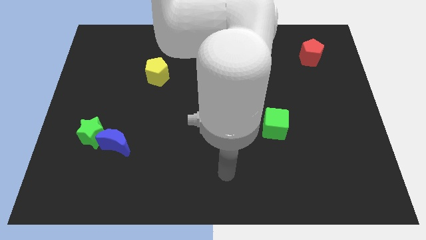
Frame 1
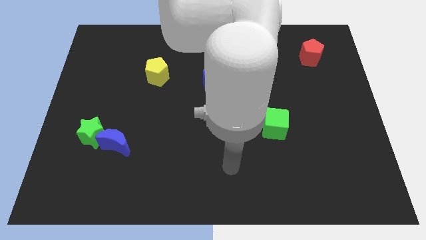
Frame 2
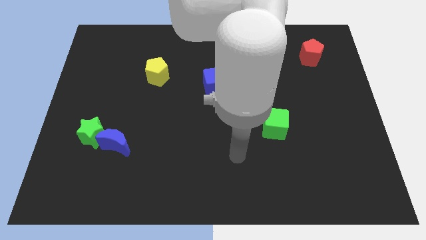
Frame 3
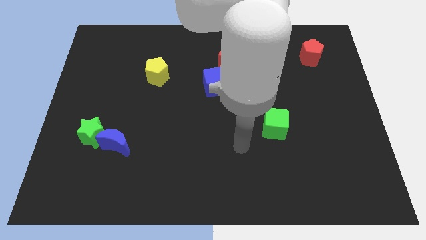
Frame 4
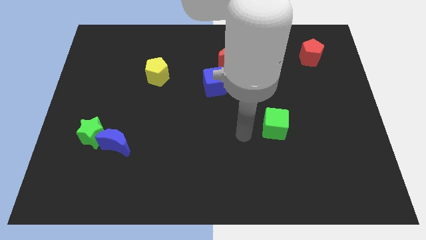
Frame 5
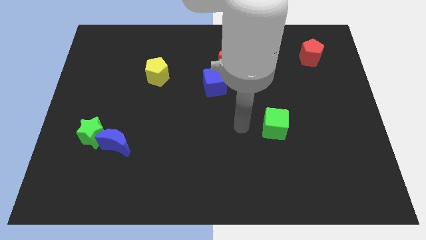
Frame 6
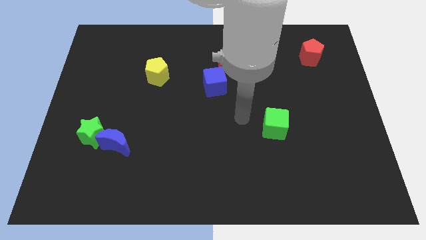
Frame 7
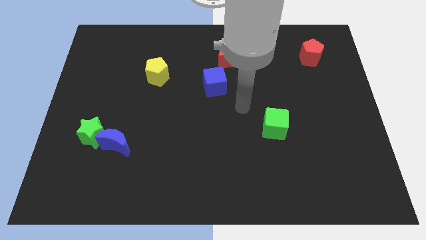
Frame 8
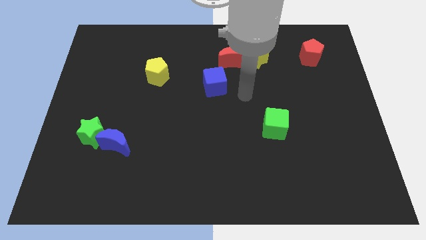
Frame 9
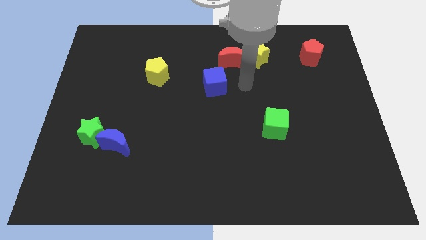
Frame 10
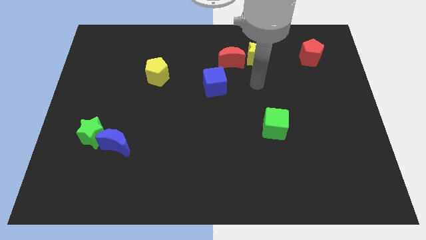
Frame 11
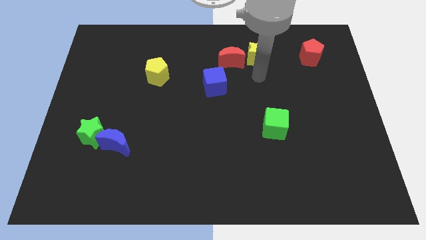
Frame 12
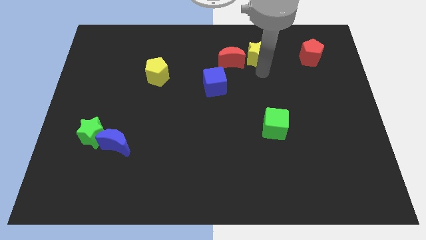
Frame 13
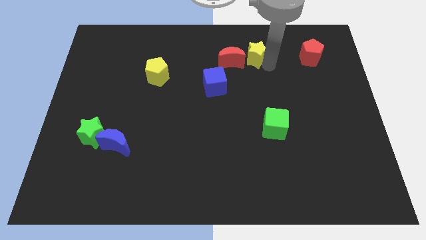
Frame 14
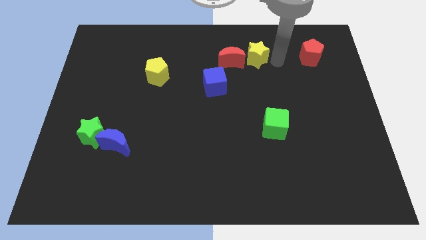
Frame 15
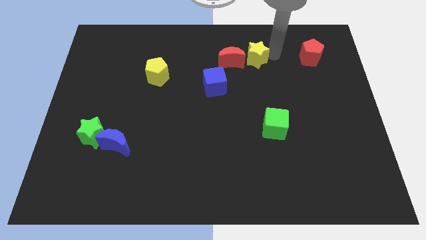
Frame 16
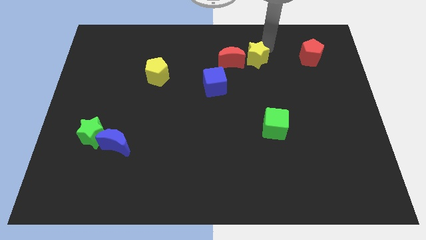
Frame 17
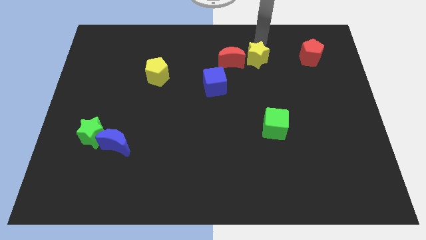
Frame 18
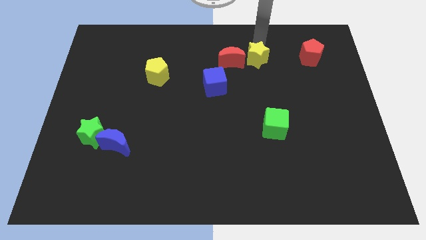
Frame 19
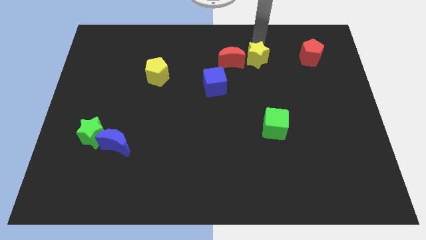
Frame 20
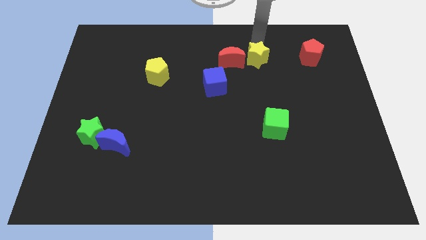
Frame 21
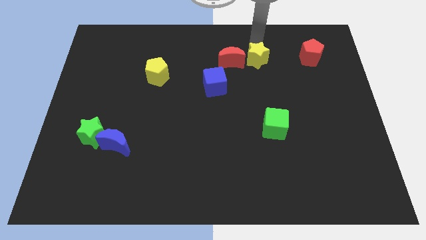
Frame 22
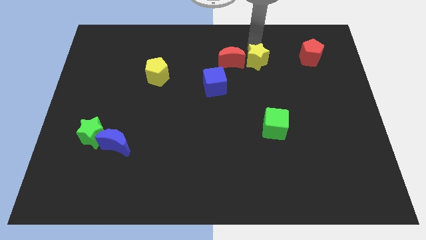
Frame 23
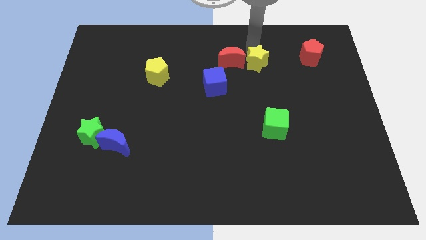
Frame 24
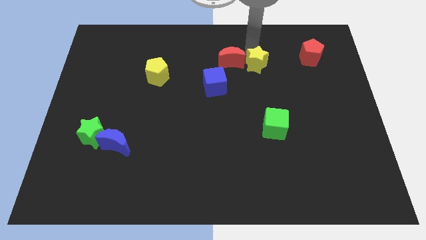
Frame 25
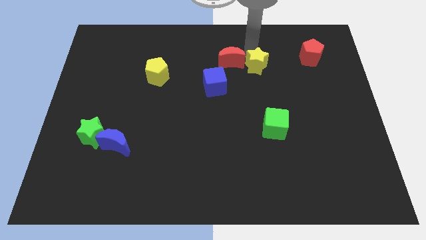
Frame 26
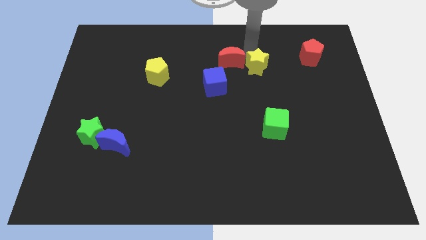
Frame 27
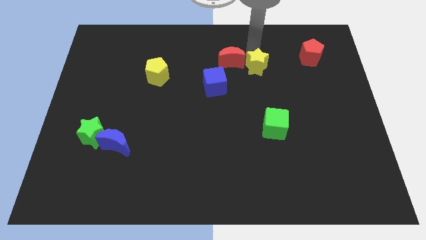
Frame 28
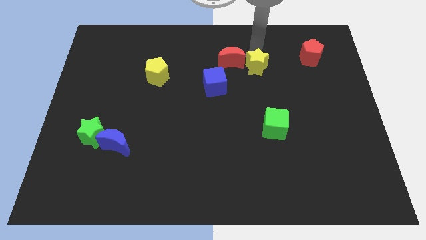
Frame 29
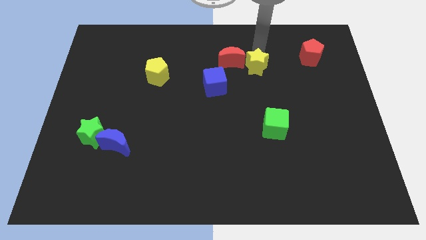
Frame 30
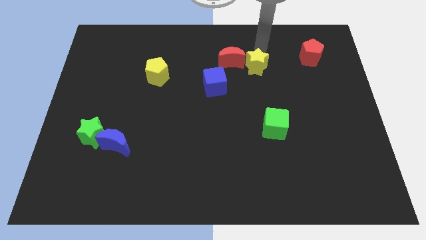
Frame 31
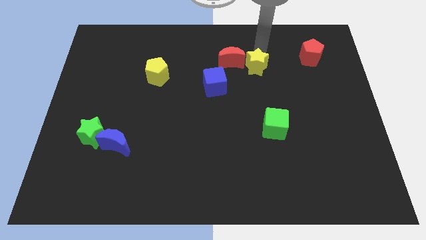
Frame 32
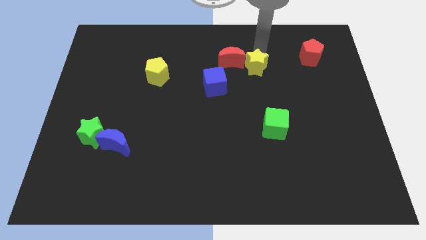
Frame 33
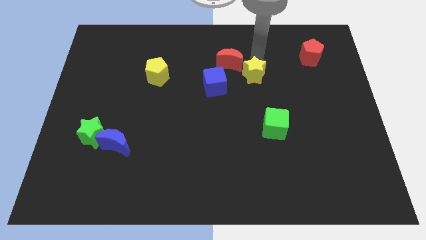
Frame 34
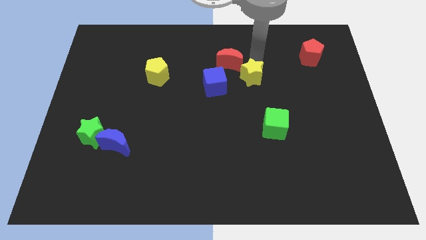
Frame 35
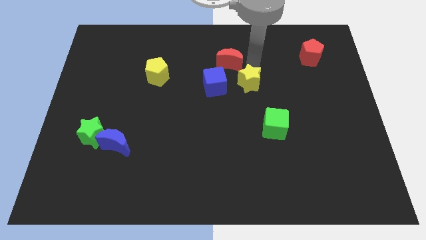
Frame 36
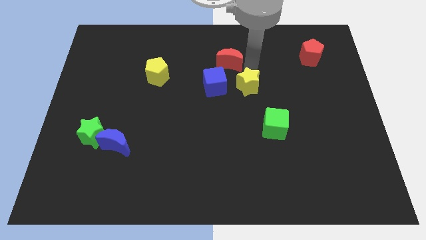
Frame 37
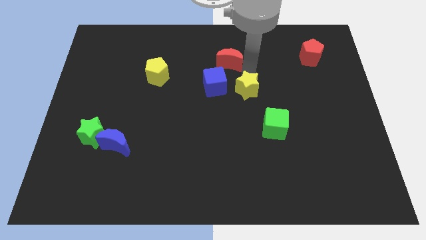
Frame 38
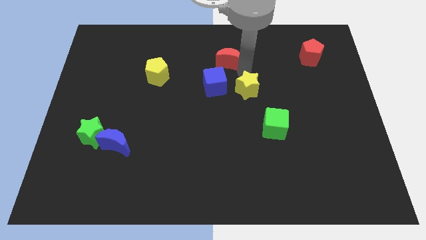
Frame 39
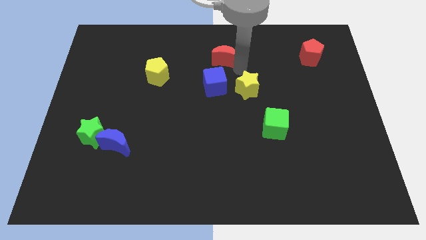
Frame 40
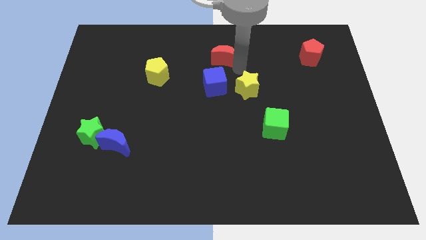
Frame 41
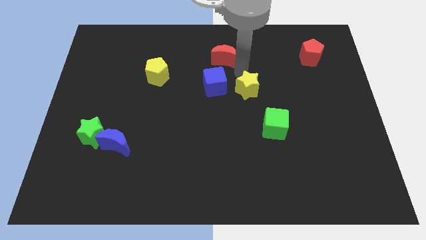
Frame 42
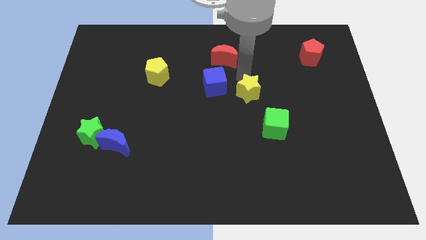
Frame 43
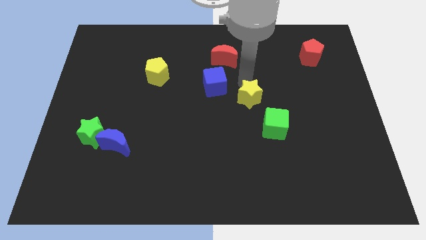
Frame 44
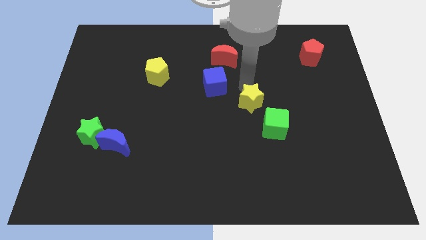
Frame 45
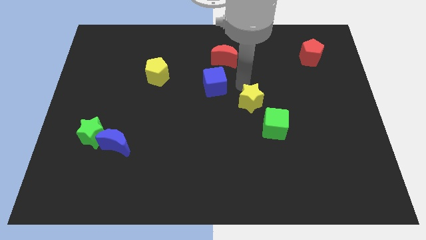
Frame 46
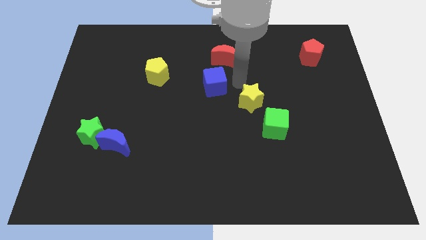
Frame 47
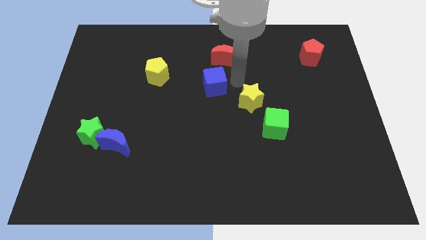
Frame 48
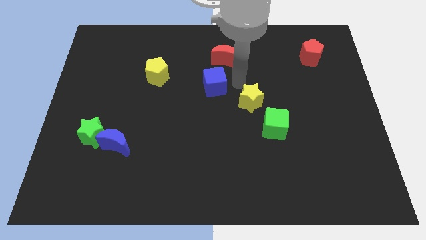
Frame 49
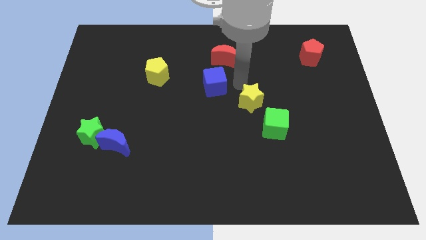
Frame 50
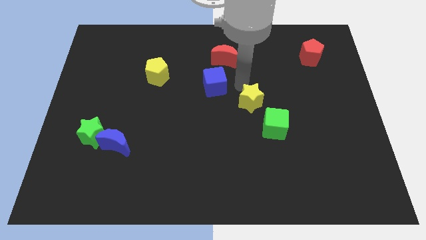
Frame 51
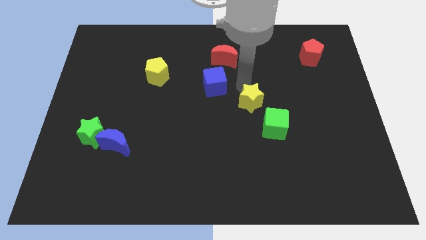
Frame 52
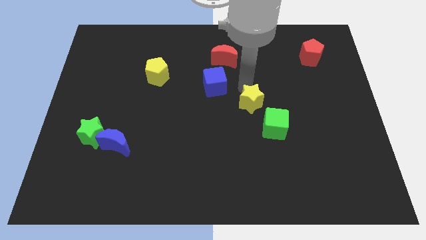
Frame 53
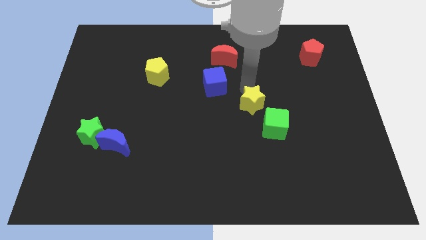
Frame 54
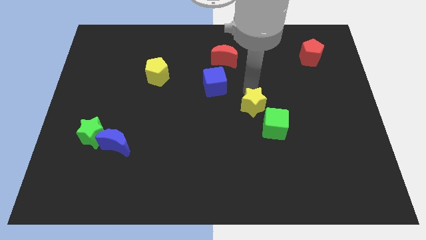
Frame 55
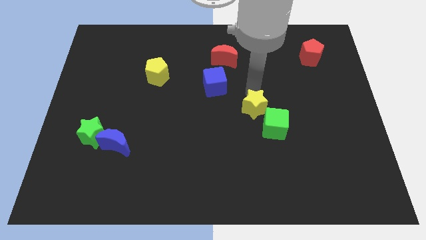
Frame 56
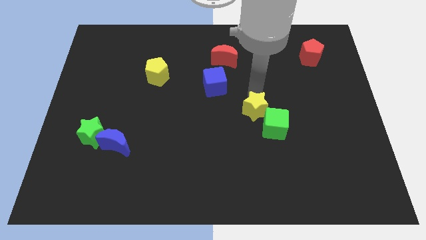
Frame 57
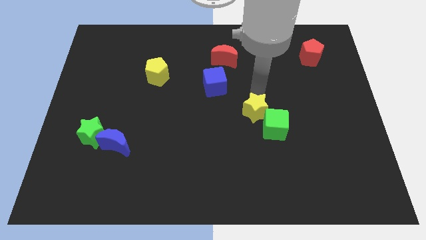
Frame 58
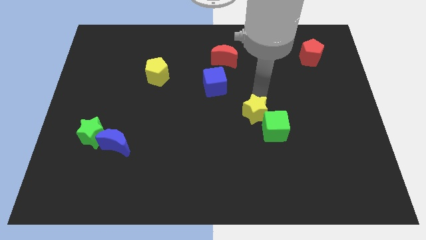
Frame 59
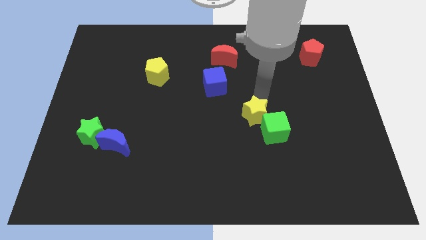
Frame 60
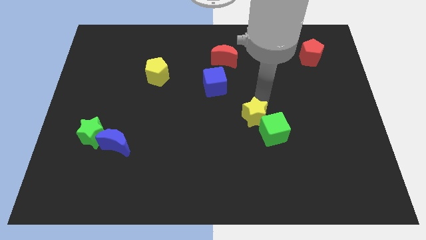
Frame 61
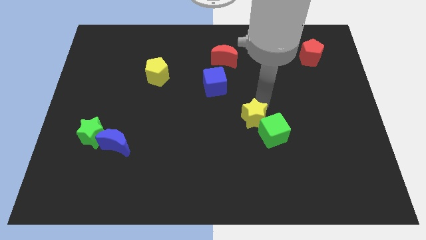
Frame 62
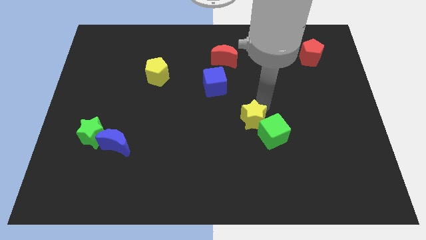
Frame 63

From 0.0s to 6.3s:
move the yellow star downwards

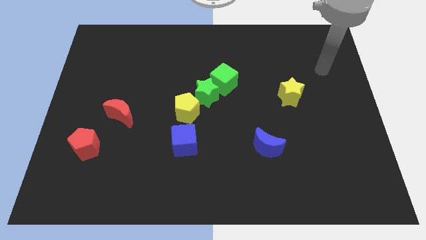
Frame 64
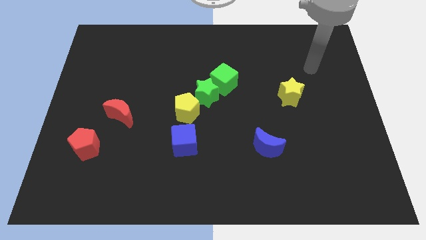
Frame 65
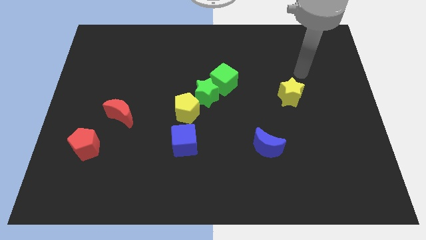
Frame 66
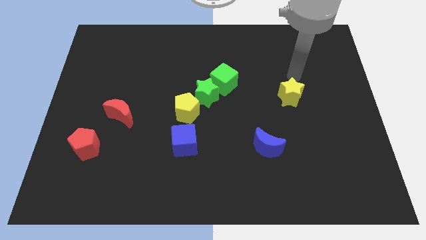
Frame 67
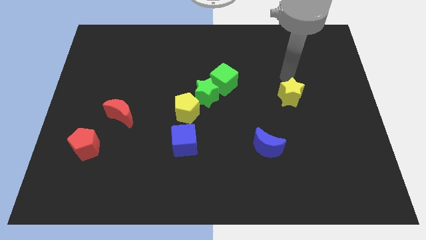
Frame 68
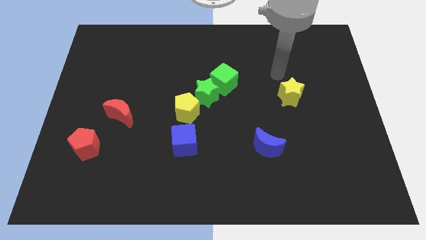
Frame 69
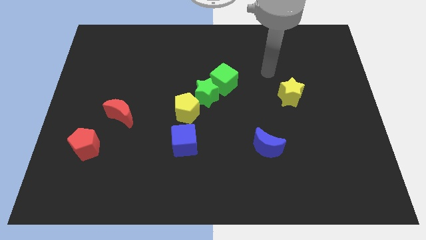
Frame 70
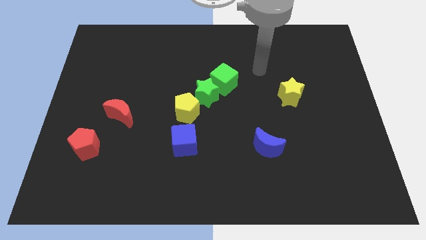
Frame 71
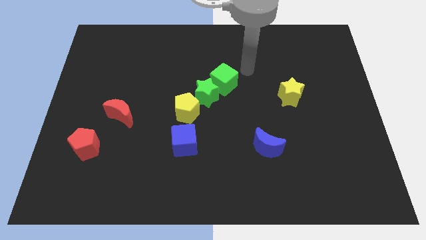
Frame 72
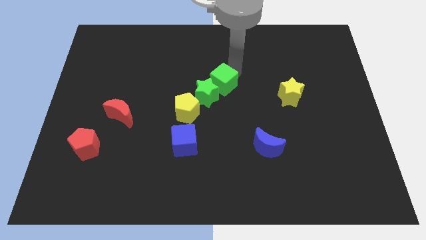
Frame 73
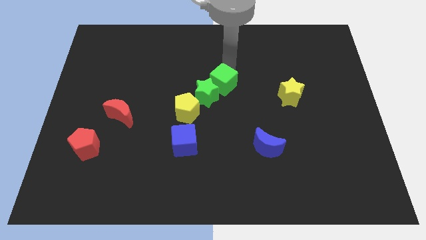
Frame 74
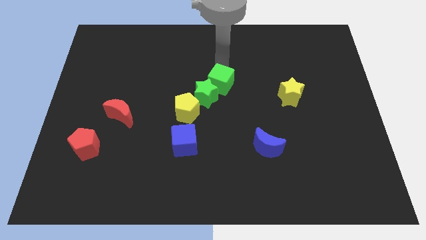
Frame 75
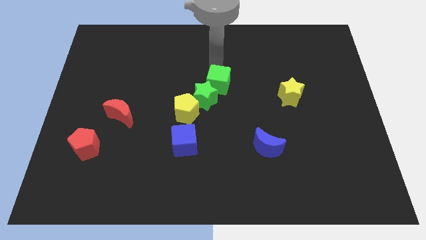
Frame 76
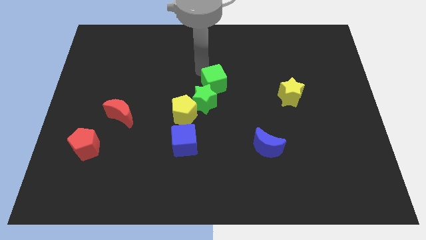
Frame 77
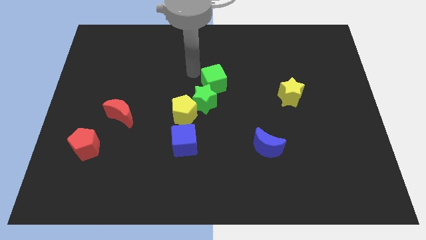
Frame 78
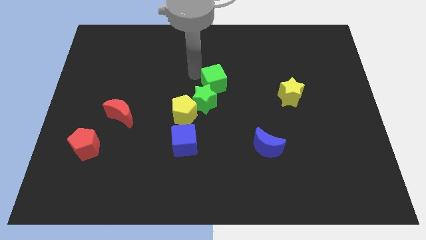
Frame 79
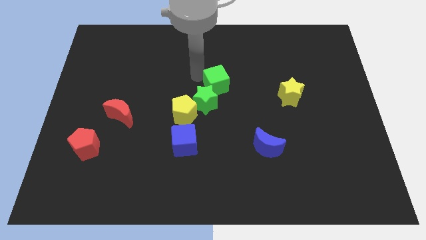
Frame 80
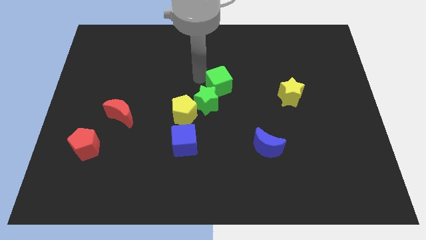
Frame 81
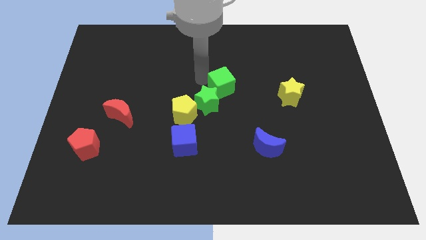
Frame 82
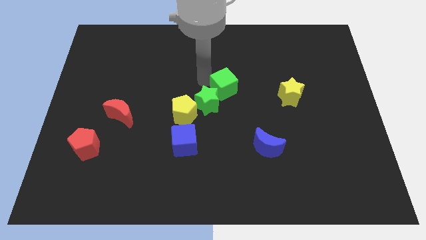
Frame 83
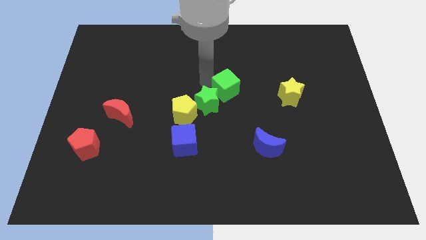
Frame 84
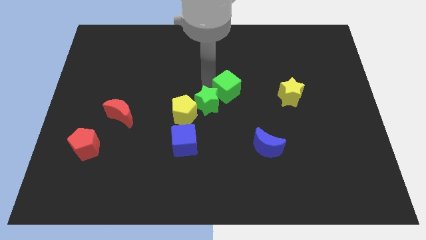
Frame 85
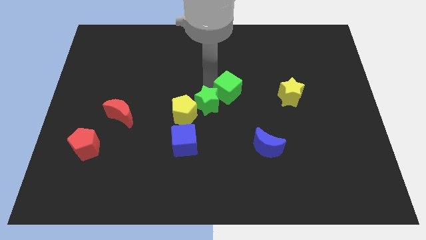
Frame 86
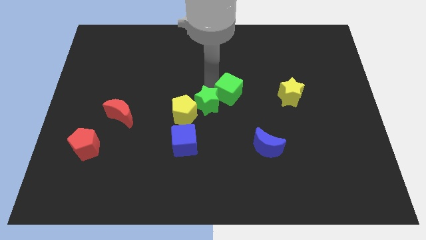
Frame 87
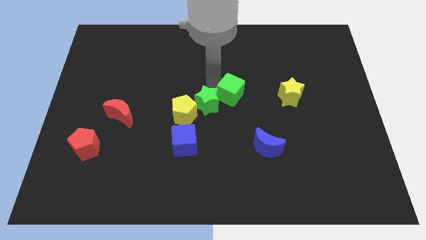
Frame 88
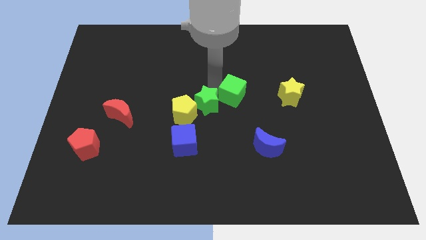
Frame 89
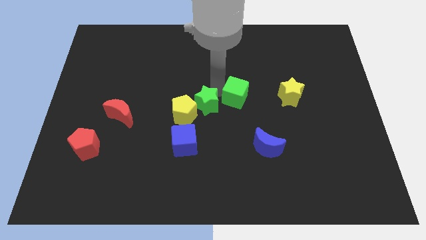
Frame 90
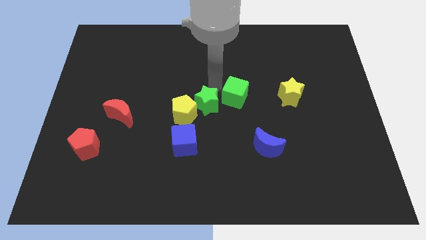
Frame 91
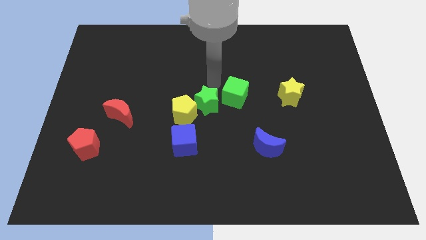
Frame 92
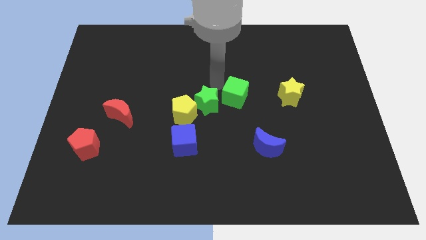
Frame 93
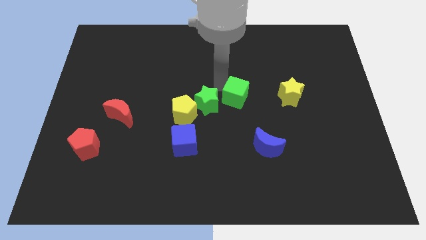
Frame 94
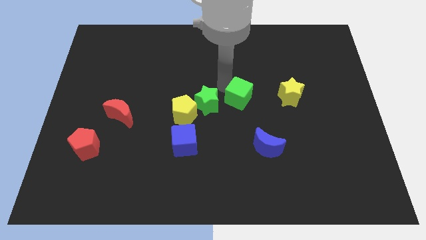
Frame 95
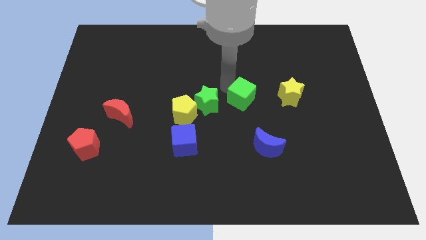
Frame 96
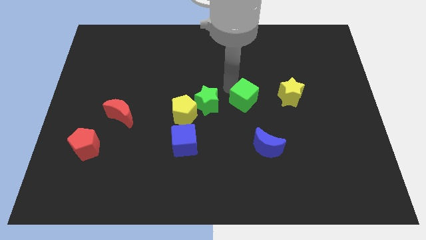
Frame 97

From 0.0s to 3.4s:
slide the green cube downwards and then to the right a little
